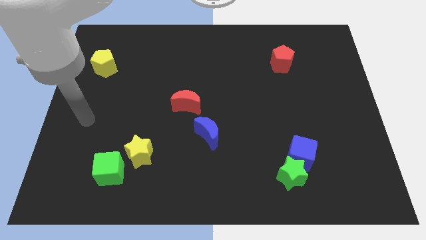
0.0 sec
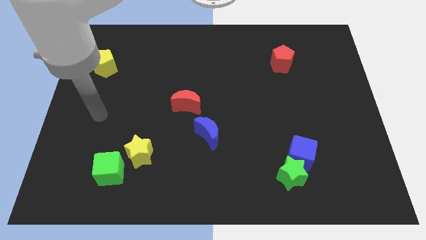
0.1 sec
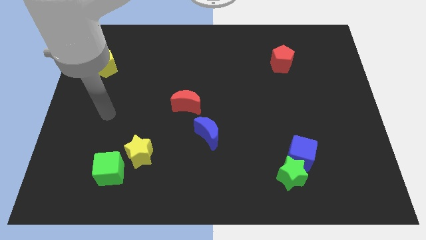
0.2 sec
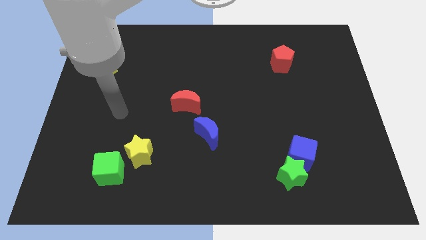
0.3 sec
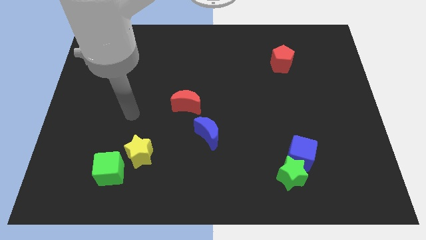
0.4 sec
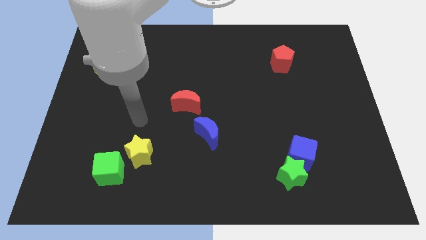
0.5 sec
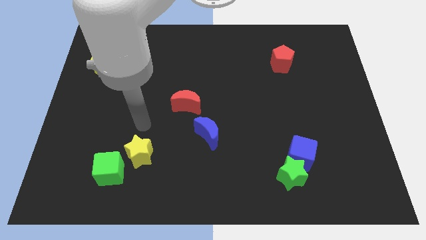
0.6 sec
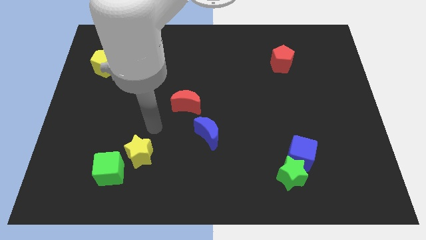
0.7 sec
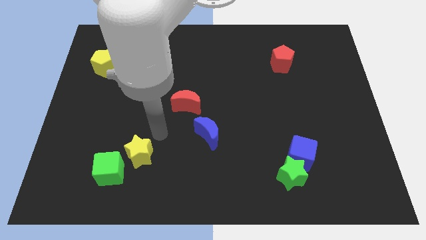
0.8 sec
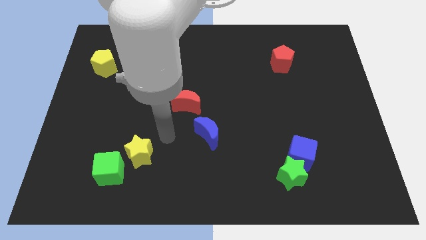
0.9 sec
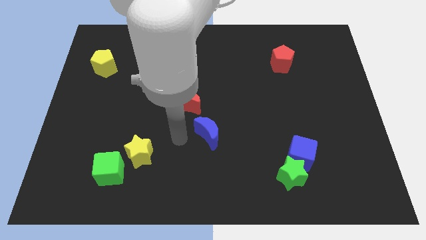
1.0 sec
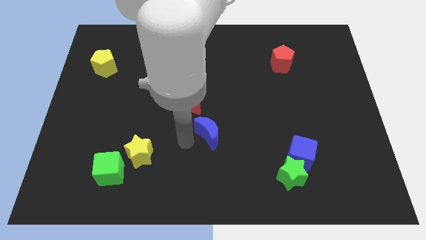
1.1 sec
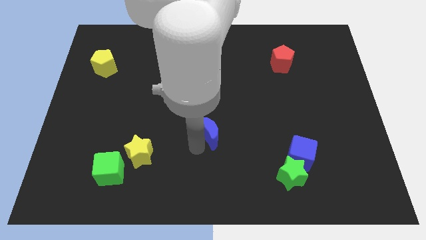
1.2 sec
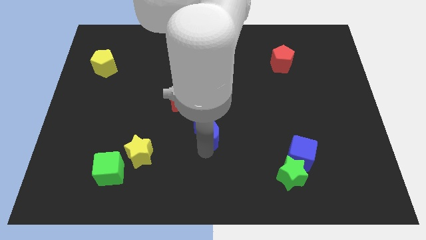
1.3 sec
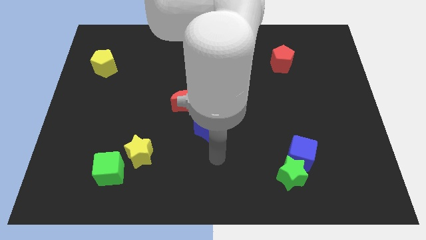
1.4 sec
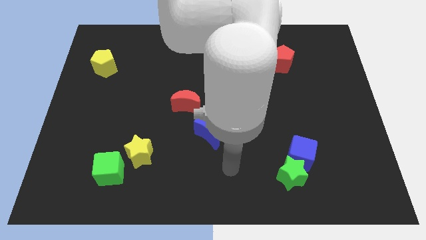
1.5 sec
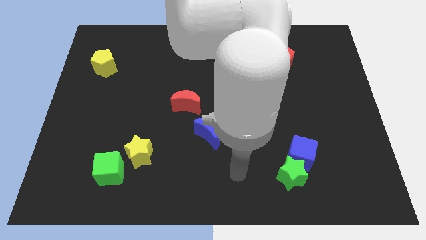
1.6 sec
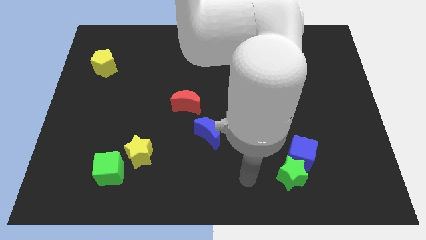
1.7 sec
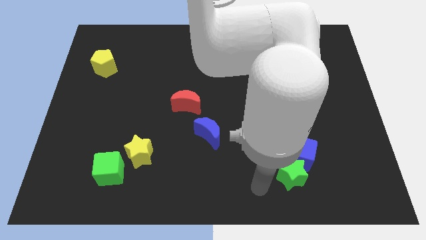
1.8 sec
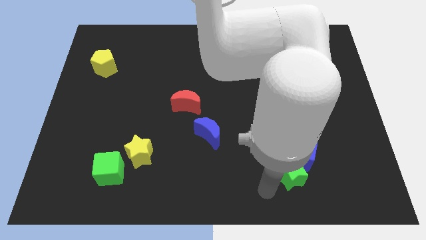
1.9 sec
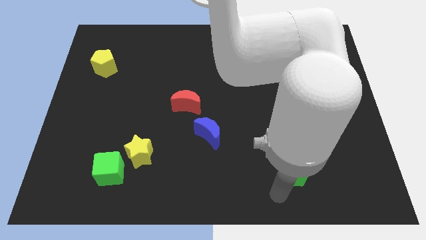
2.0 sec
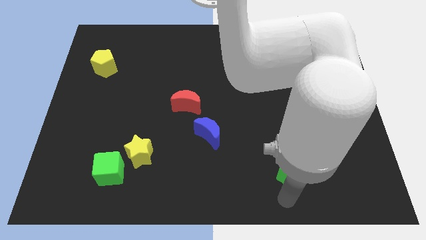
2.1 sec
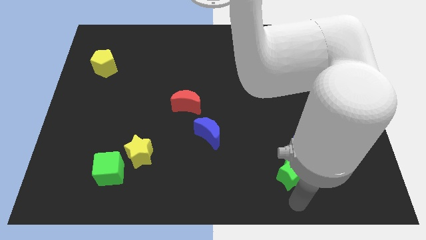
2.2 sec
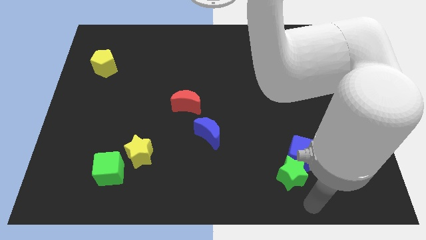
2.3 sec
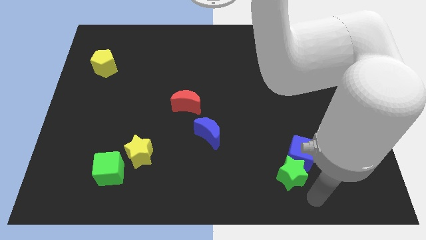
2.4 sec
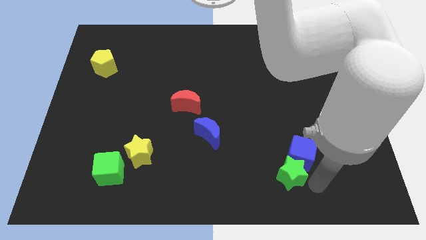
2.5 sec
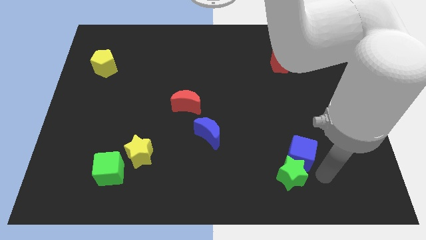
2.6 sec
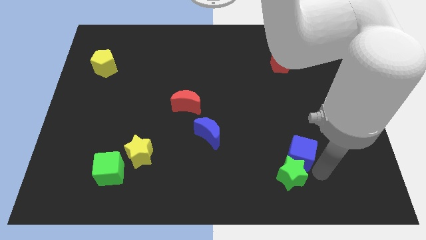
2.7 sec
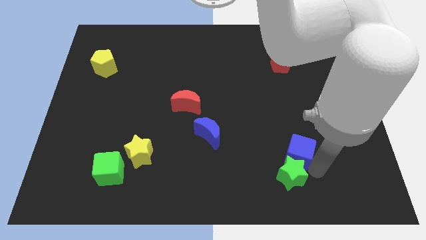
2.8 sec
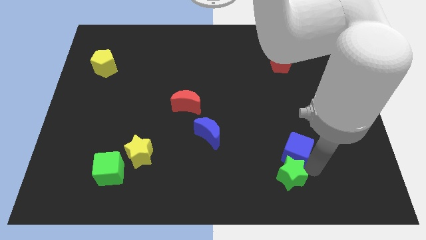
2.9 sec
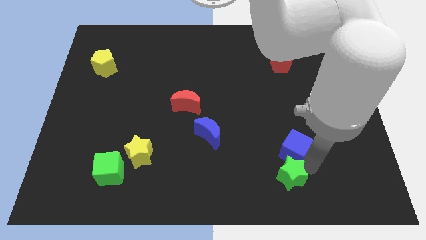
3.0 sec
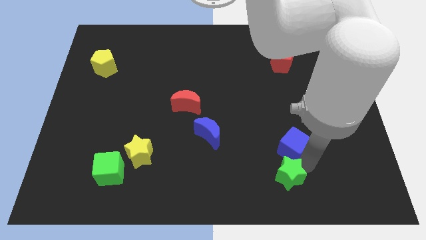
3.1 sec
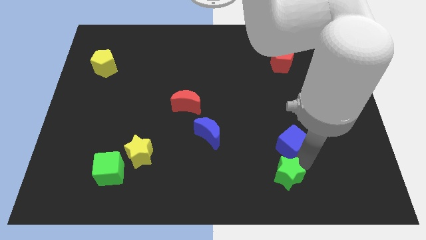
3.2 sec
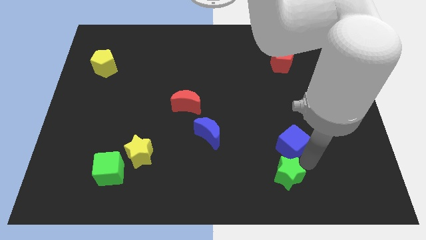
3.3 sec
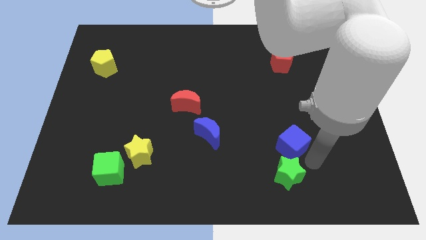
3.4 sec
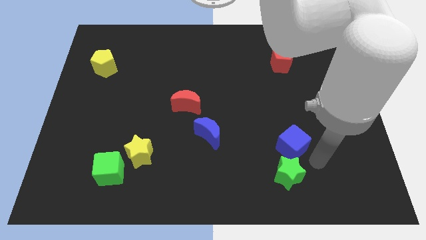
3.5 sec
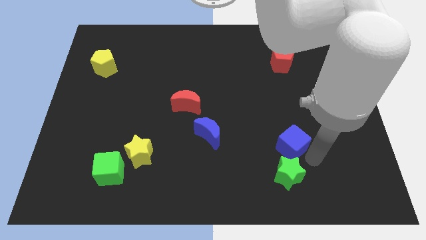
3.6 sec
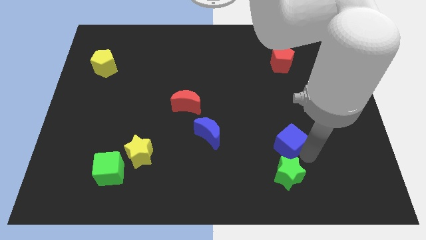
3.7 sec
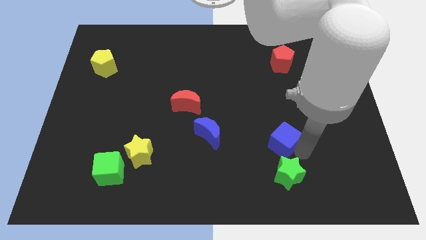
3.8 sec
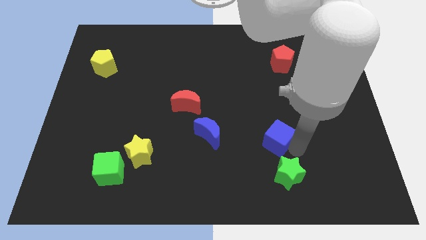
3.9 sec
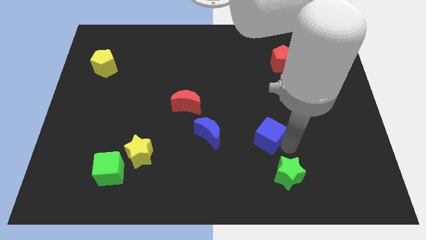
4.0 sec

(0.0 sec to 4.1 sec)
slightly slide the blue cube upwards and then to the left

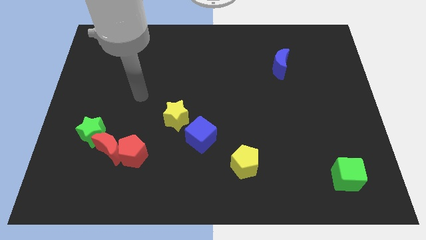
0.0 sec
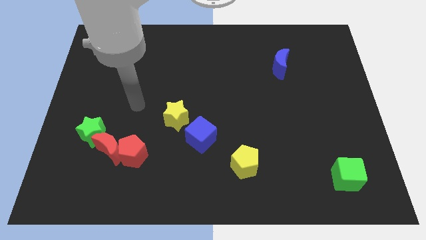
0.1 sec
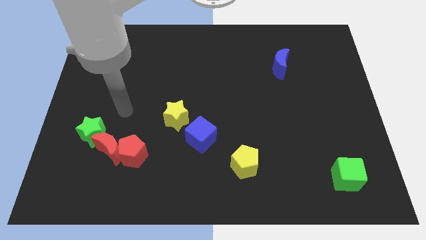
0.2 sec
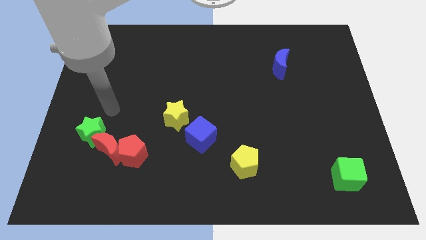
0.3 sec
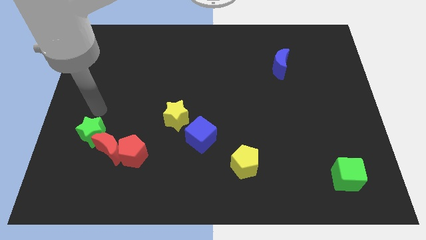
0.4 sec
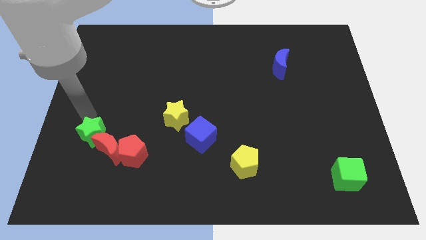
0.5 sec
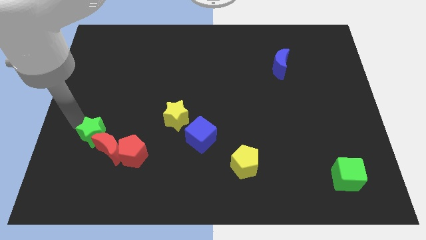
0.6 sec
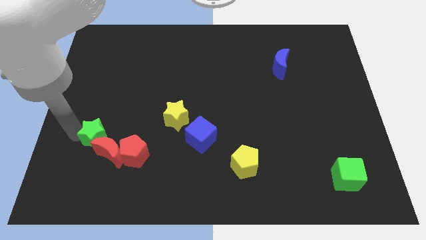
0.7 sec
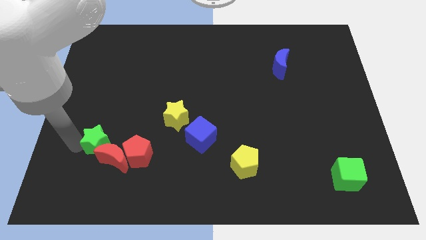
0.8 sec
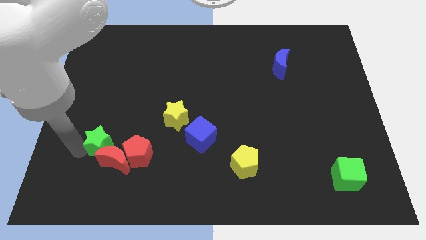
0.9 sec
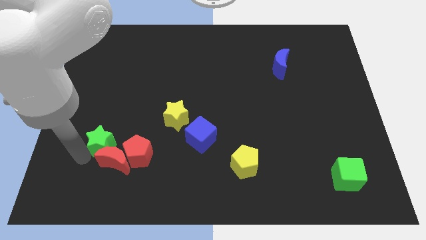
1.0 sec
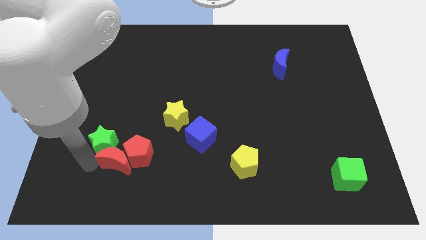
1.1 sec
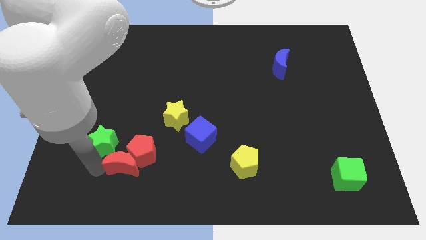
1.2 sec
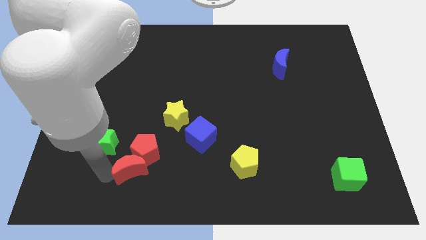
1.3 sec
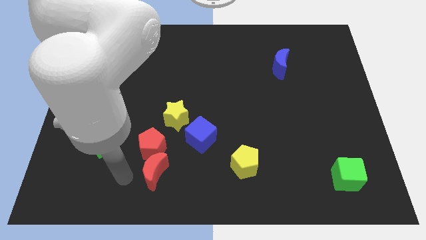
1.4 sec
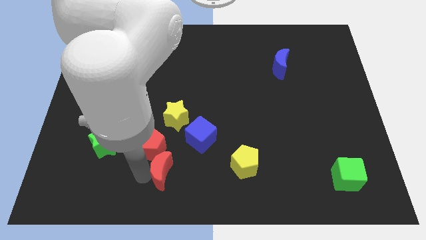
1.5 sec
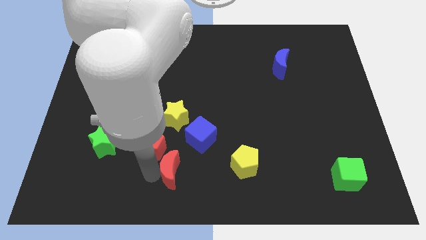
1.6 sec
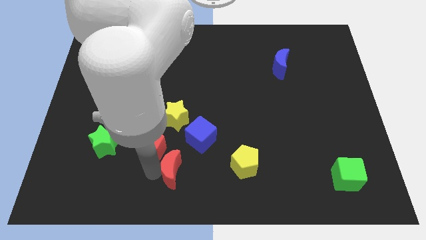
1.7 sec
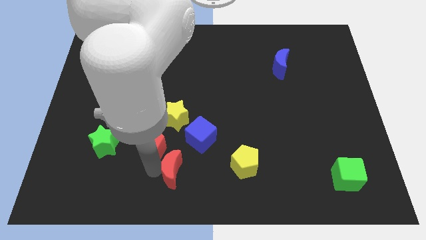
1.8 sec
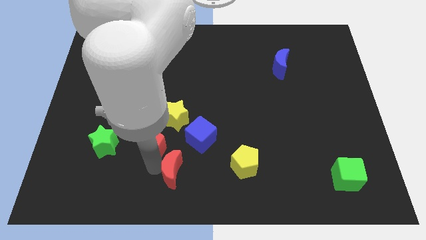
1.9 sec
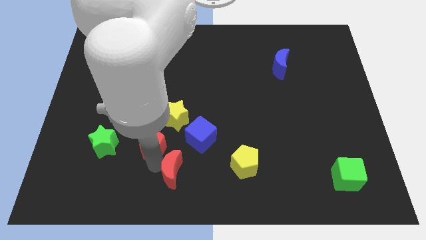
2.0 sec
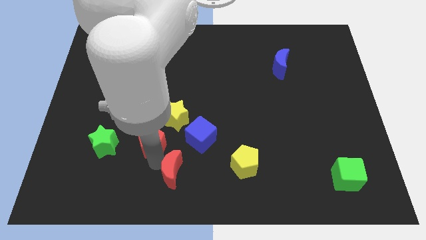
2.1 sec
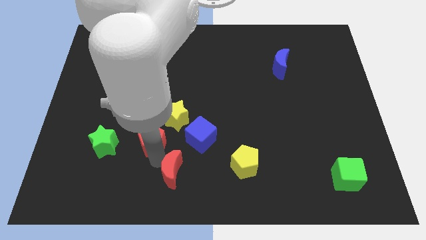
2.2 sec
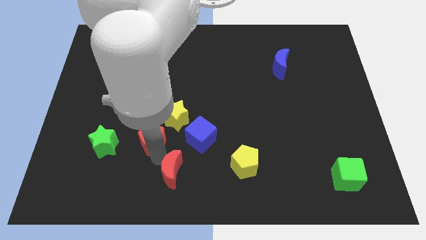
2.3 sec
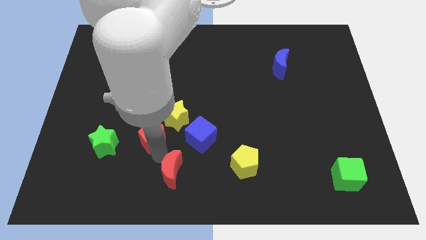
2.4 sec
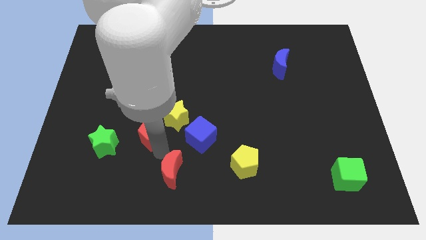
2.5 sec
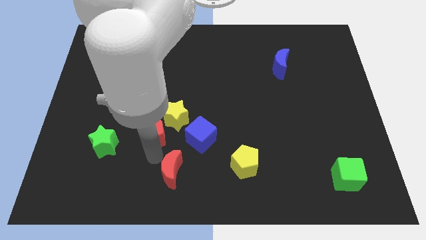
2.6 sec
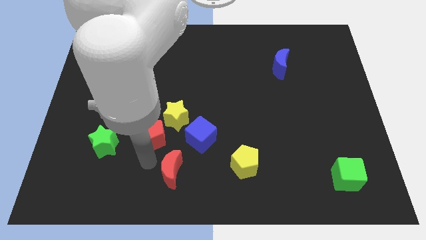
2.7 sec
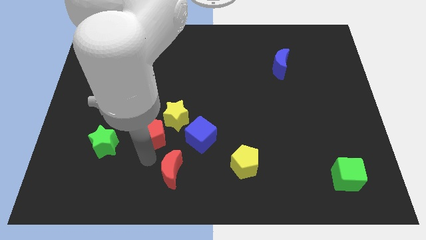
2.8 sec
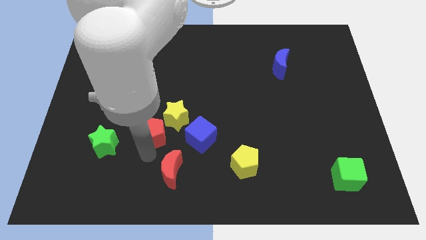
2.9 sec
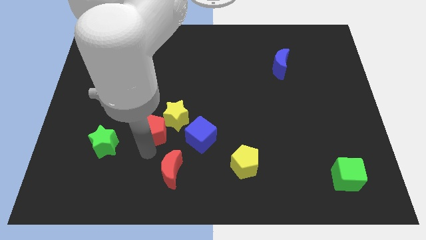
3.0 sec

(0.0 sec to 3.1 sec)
slightly push the red pentagon diagonally up and right

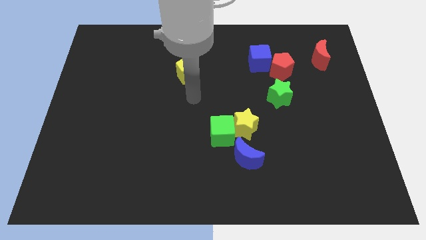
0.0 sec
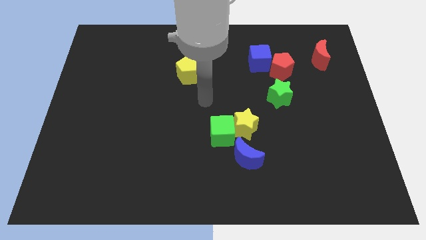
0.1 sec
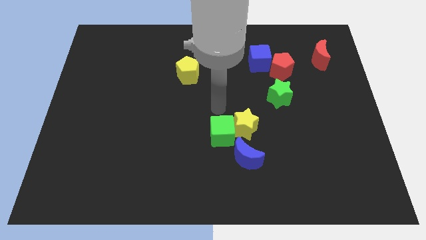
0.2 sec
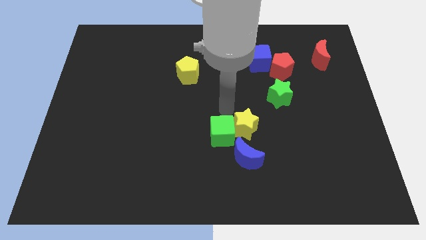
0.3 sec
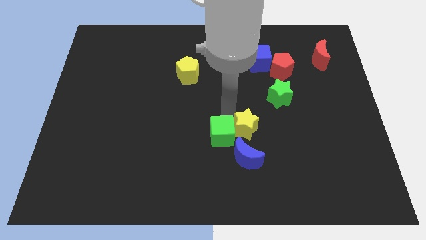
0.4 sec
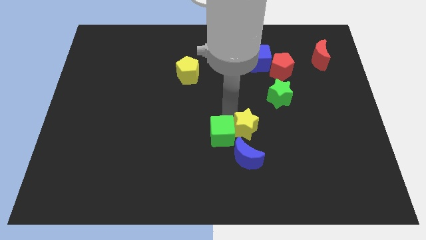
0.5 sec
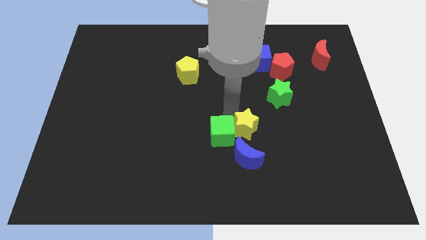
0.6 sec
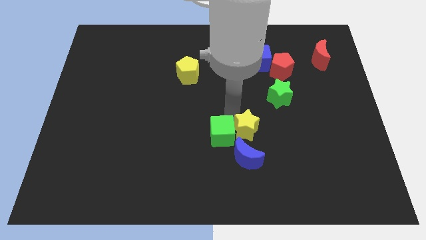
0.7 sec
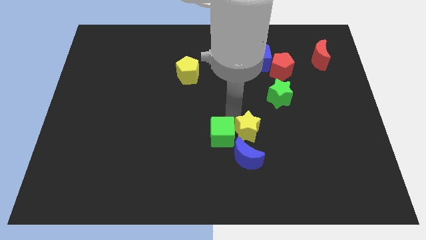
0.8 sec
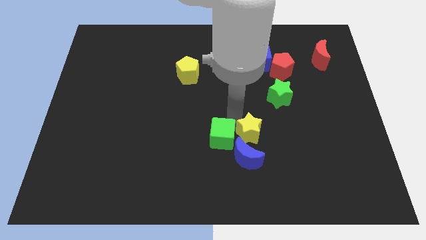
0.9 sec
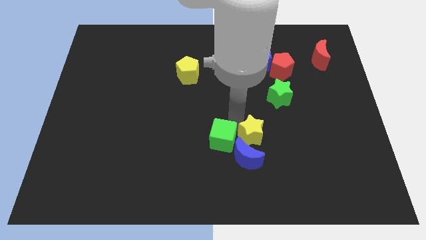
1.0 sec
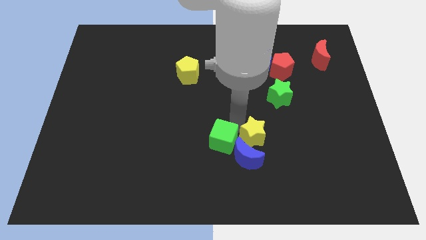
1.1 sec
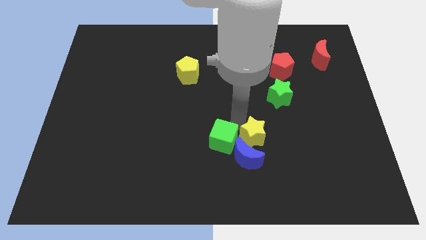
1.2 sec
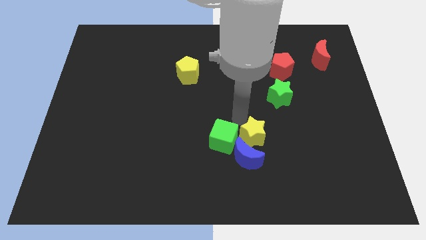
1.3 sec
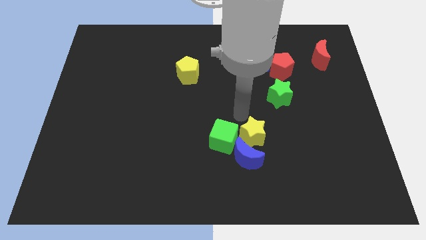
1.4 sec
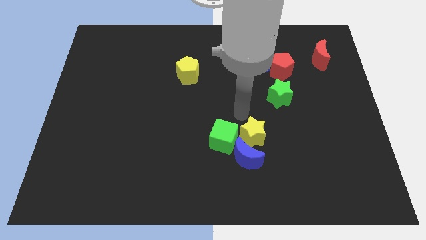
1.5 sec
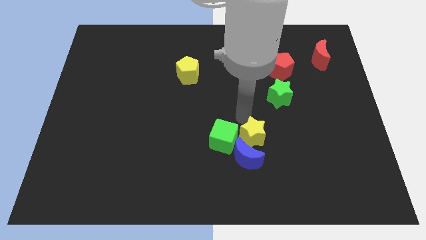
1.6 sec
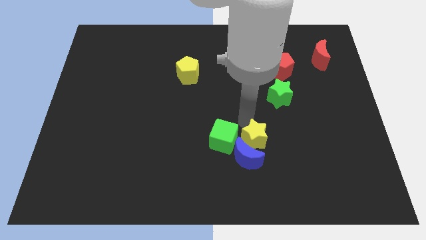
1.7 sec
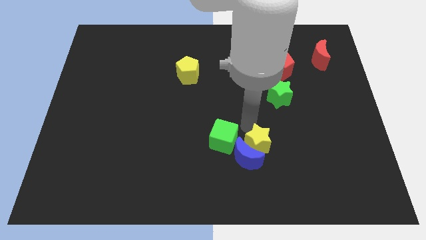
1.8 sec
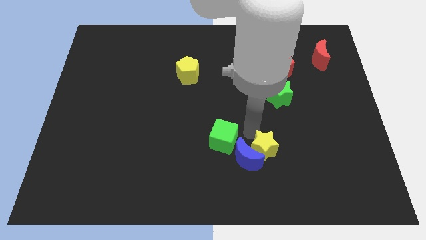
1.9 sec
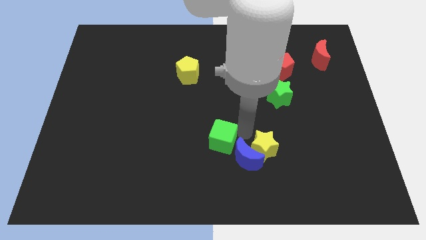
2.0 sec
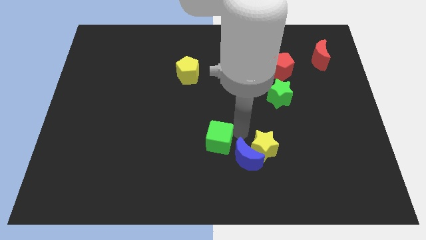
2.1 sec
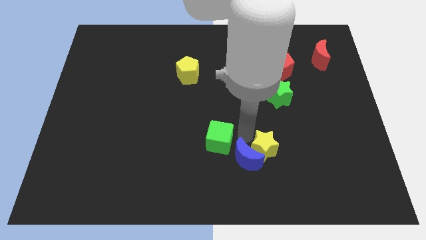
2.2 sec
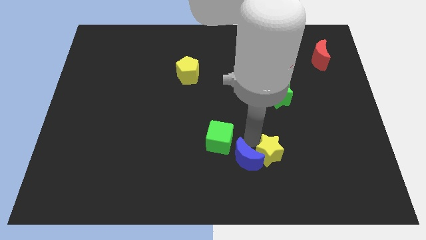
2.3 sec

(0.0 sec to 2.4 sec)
push the yellow star down and to the right a bit
